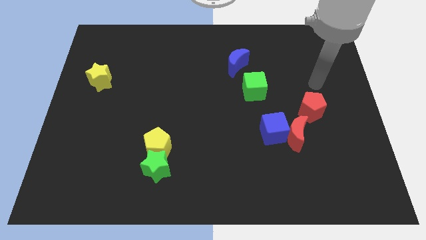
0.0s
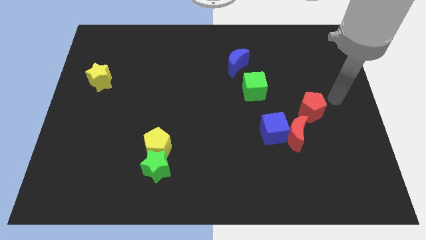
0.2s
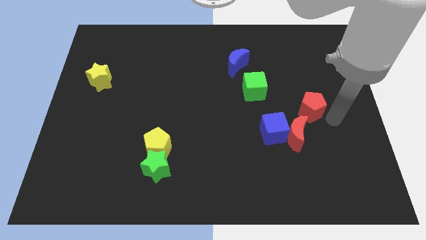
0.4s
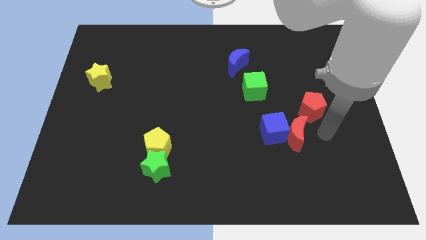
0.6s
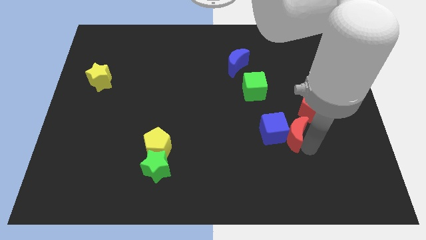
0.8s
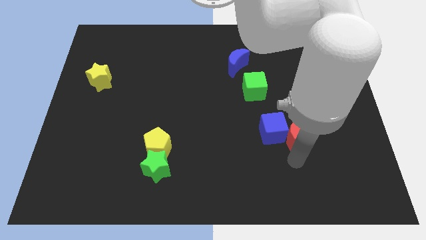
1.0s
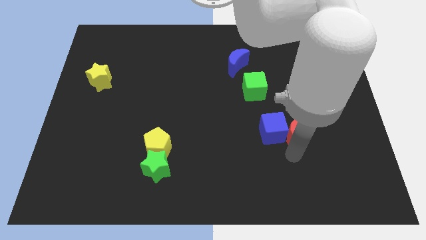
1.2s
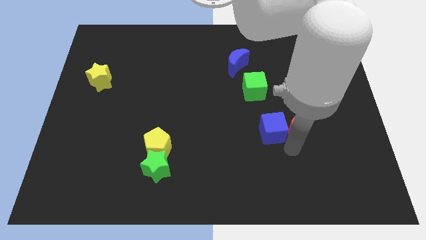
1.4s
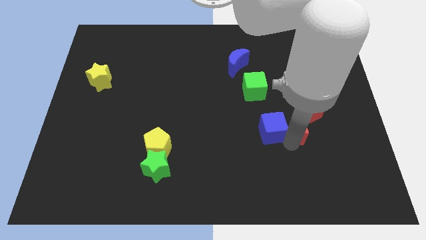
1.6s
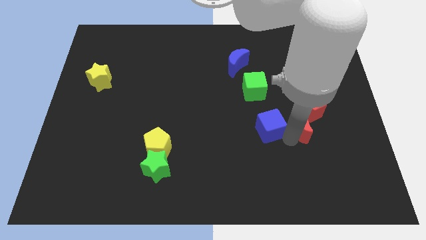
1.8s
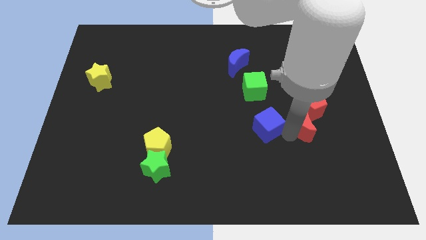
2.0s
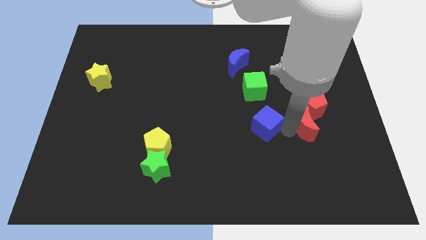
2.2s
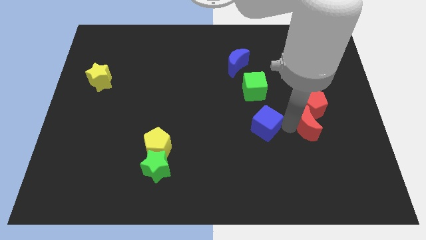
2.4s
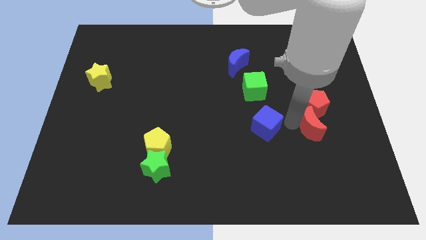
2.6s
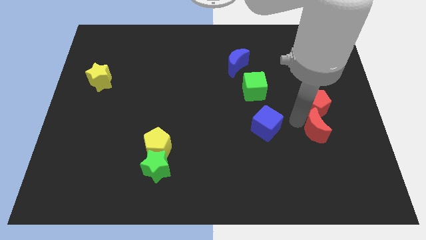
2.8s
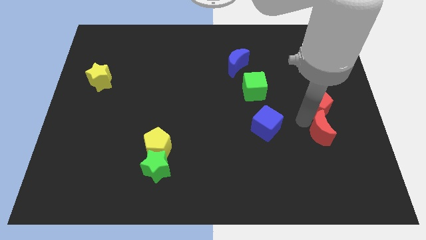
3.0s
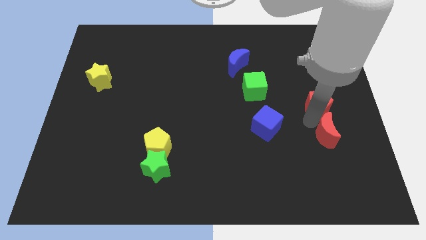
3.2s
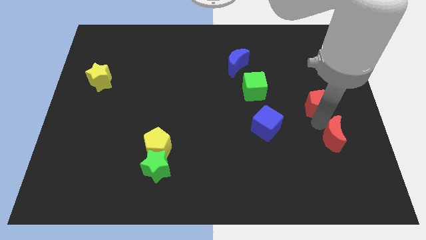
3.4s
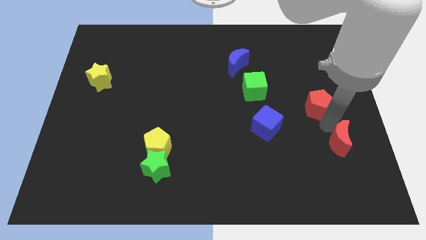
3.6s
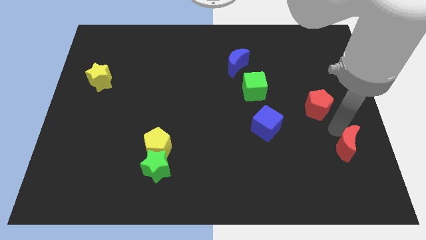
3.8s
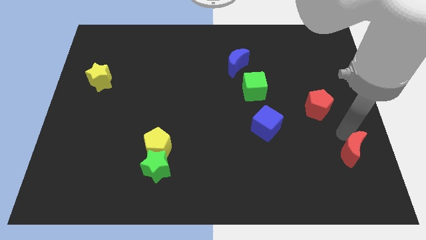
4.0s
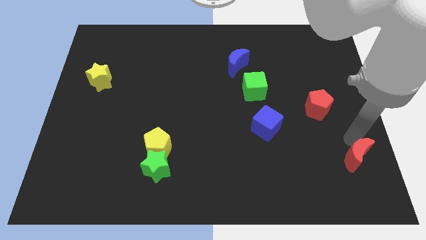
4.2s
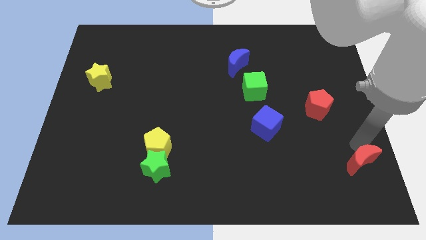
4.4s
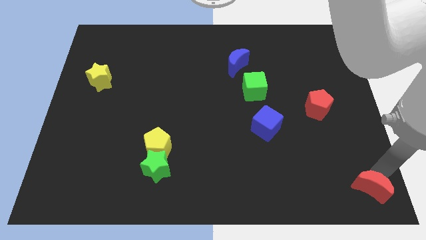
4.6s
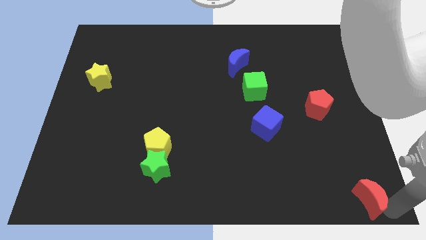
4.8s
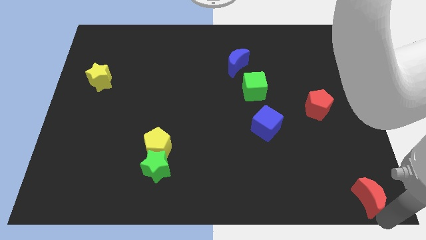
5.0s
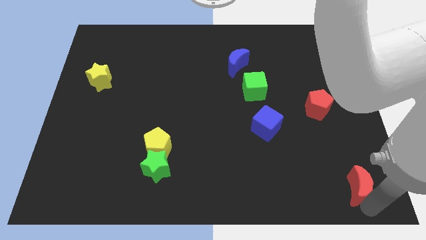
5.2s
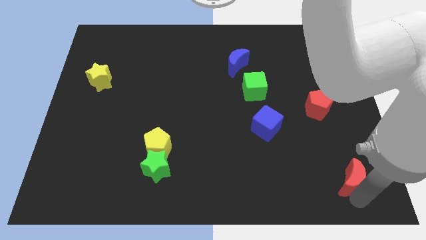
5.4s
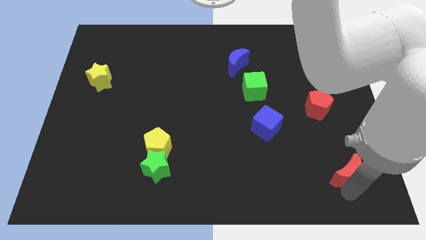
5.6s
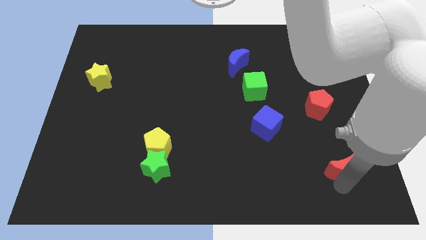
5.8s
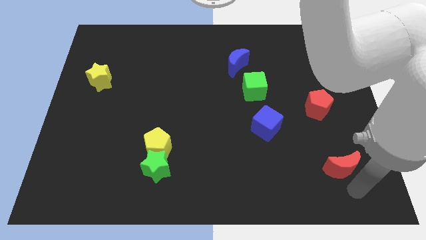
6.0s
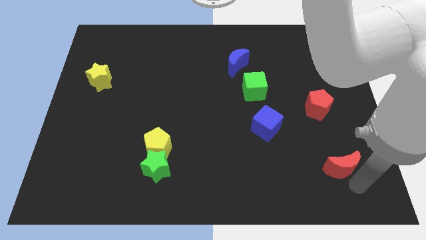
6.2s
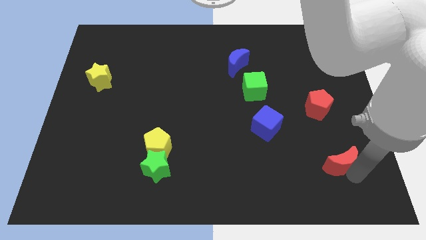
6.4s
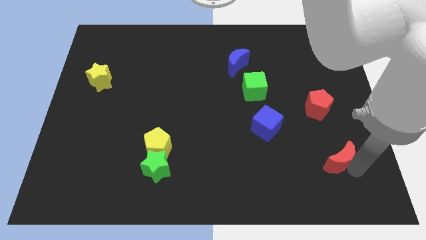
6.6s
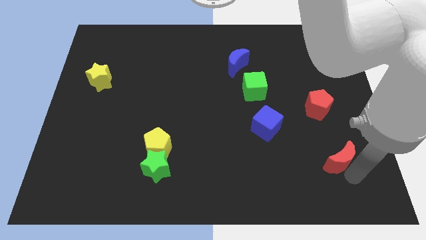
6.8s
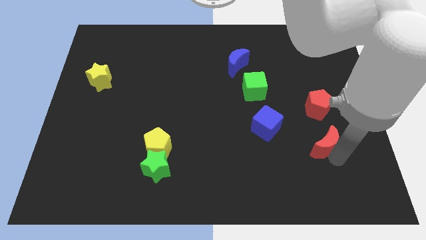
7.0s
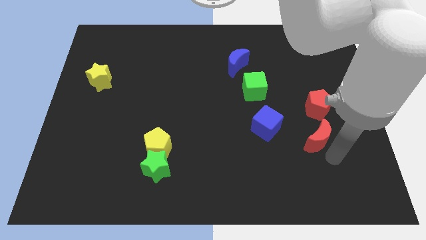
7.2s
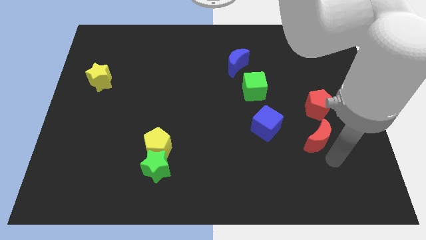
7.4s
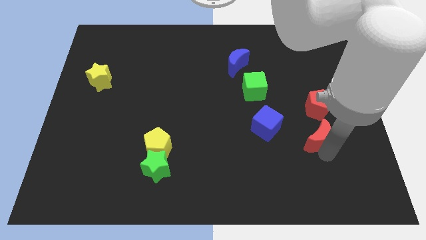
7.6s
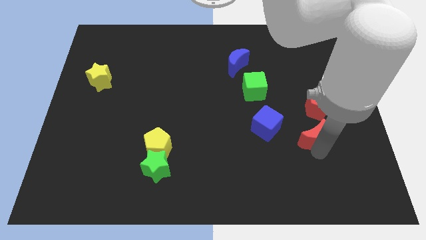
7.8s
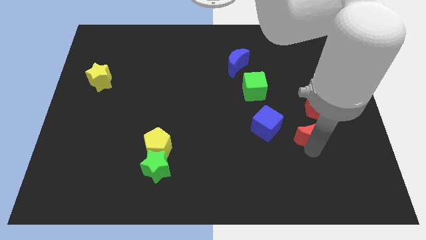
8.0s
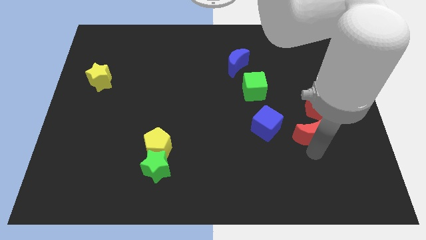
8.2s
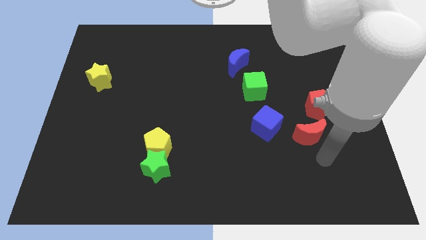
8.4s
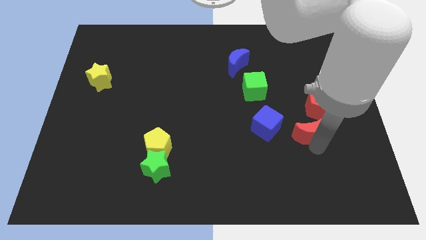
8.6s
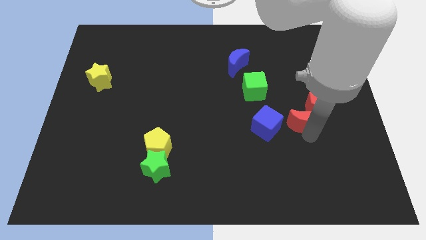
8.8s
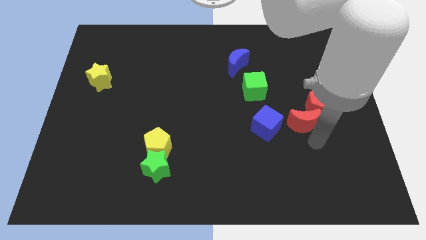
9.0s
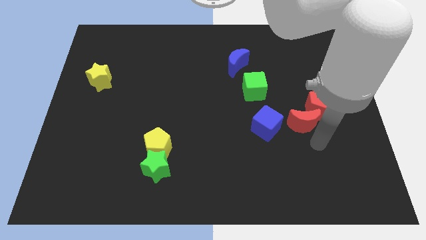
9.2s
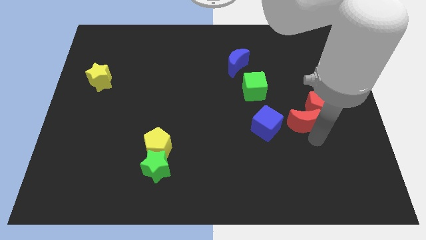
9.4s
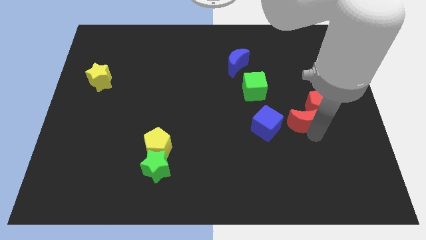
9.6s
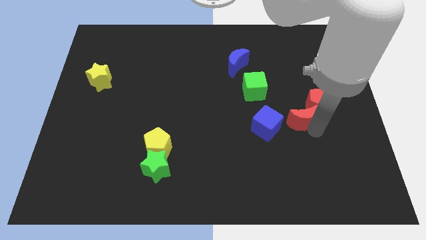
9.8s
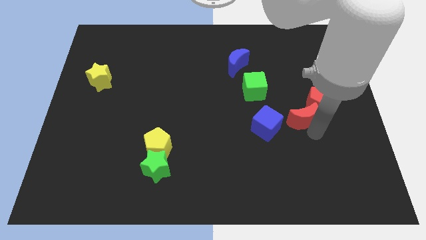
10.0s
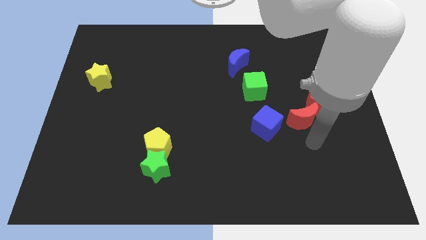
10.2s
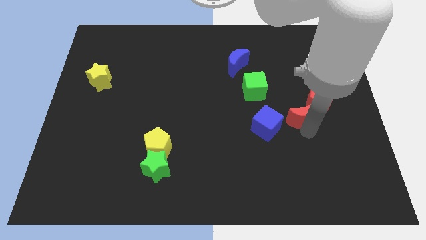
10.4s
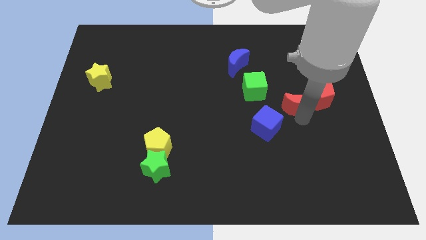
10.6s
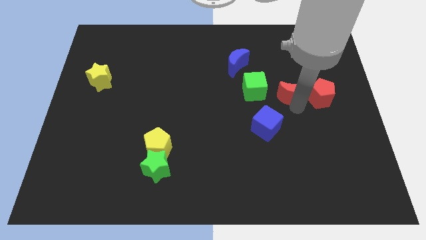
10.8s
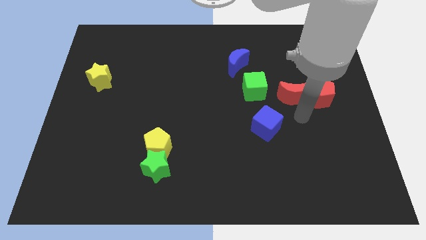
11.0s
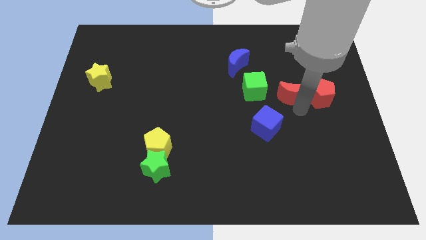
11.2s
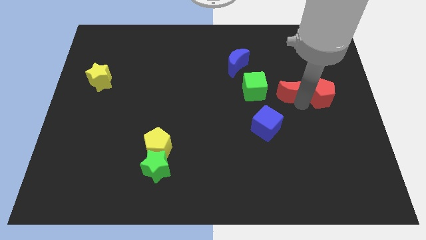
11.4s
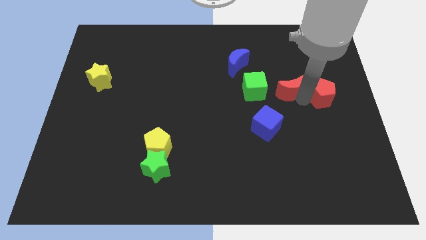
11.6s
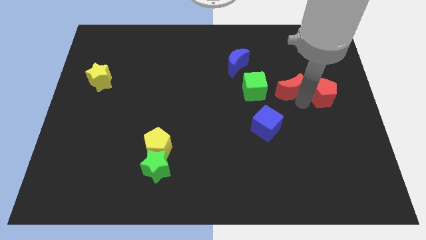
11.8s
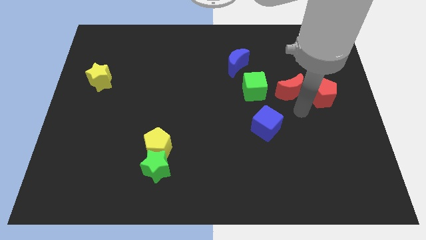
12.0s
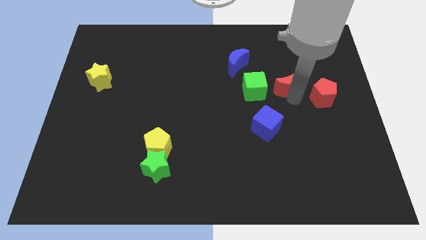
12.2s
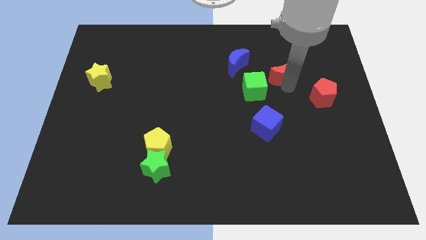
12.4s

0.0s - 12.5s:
push the red moon to the right of the blue moon

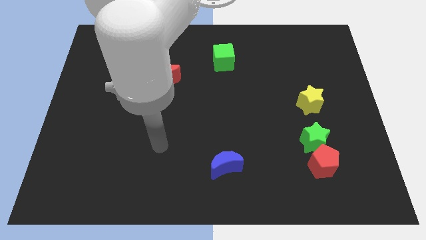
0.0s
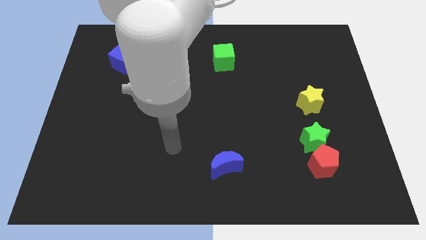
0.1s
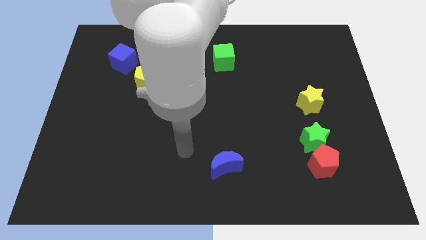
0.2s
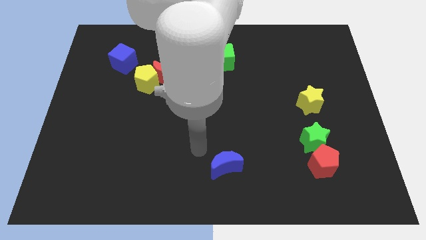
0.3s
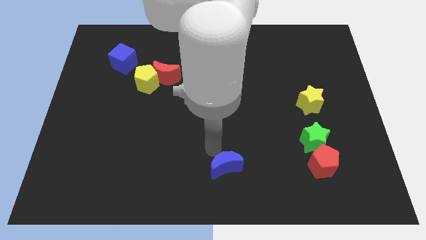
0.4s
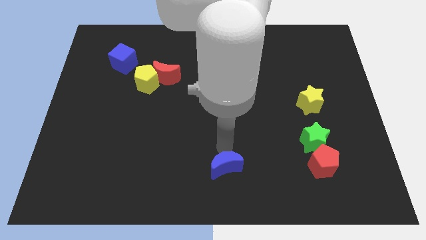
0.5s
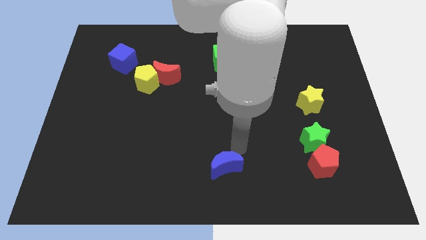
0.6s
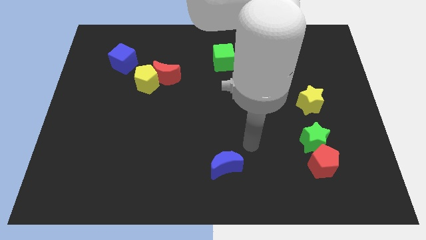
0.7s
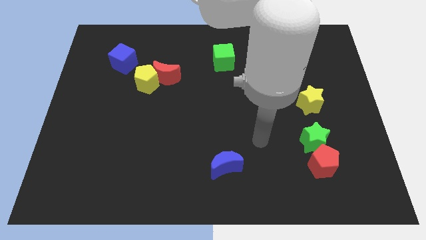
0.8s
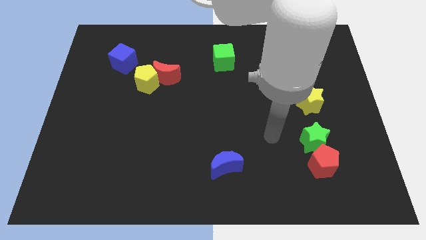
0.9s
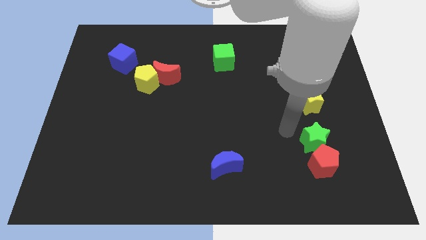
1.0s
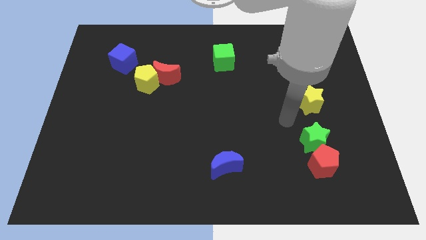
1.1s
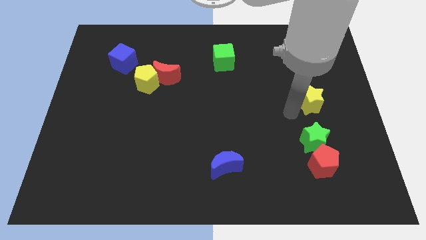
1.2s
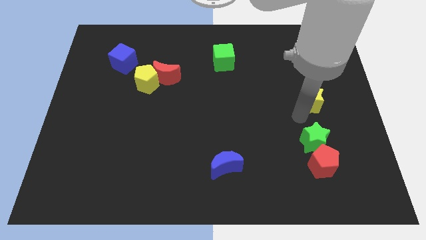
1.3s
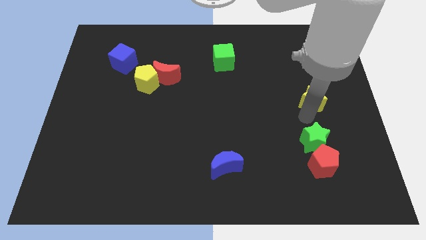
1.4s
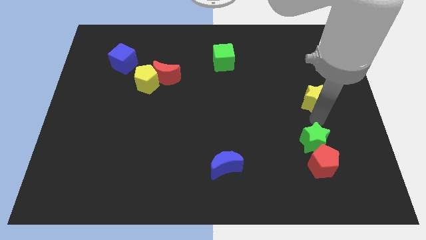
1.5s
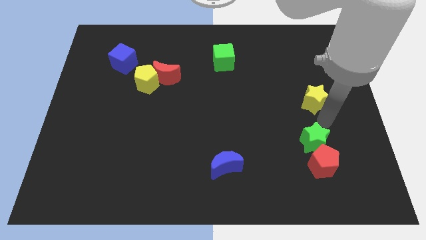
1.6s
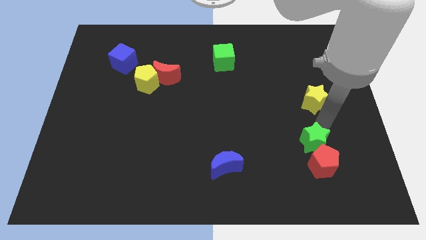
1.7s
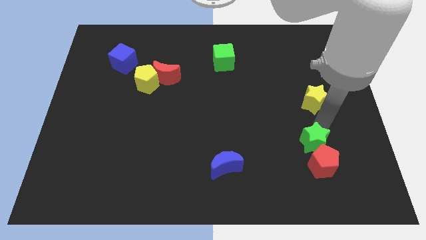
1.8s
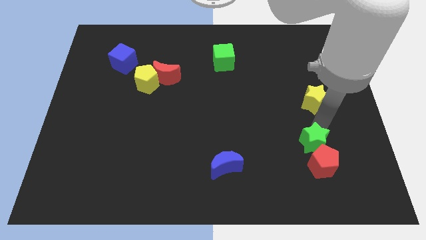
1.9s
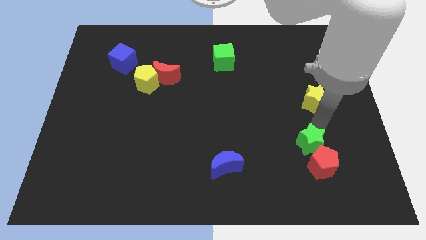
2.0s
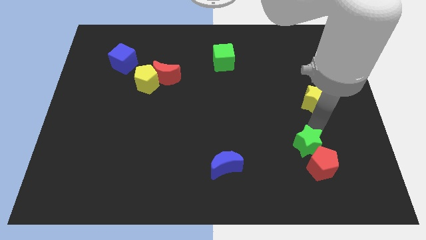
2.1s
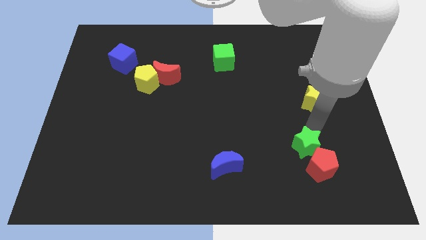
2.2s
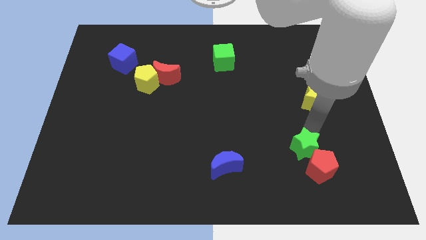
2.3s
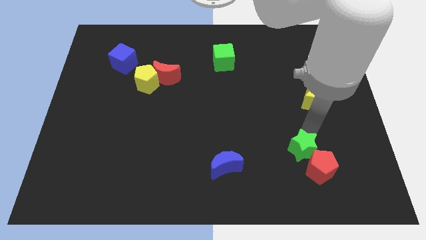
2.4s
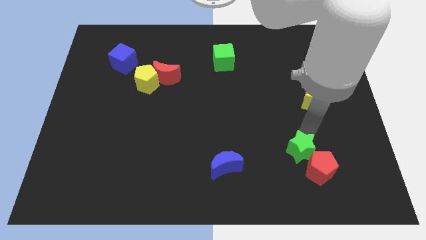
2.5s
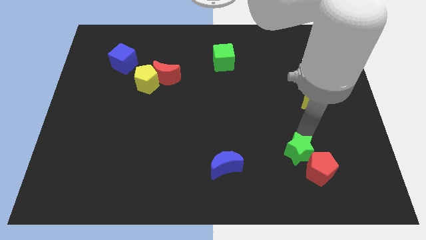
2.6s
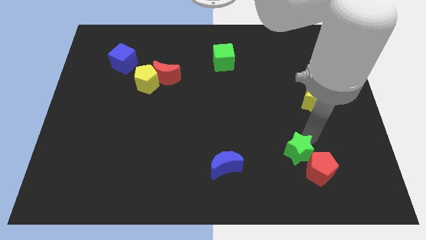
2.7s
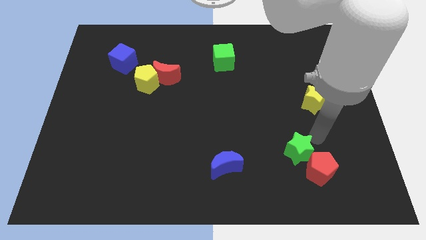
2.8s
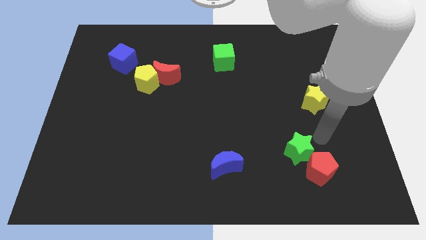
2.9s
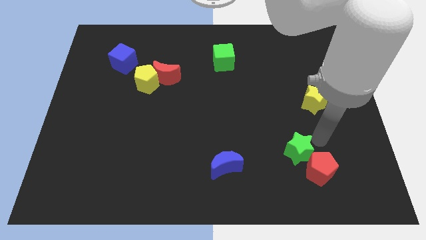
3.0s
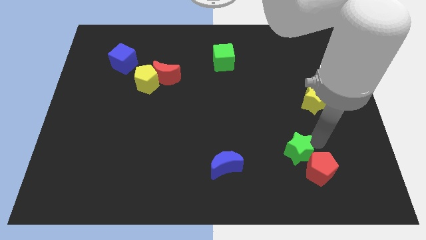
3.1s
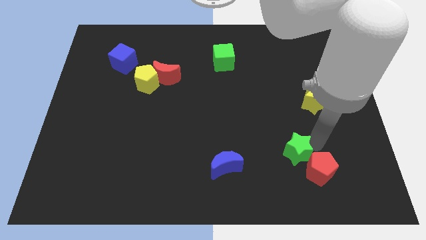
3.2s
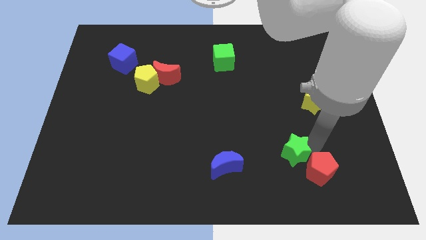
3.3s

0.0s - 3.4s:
slide the green star to the right side of the blue moon
